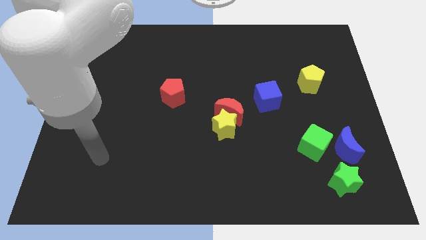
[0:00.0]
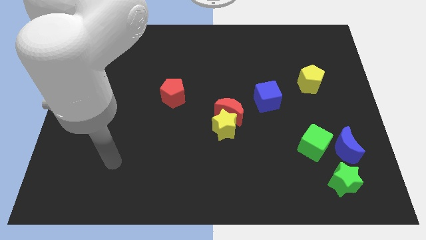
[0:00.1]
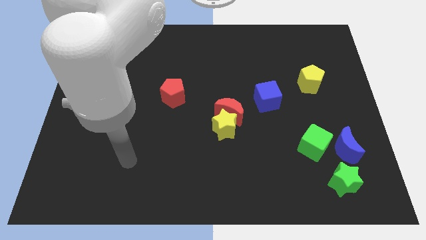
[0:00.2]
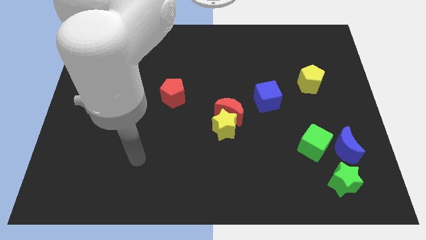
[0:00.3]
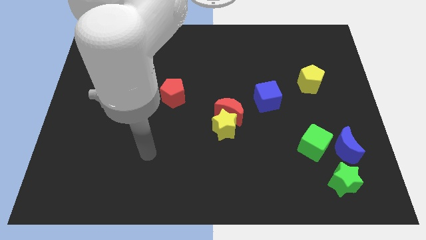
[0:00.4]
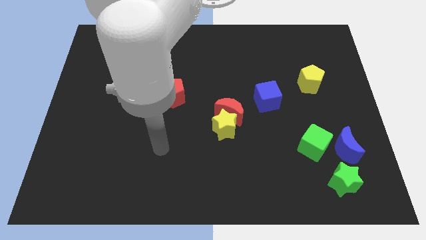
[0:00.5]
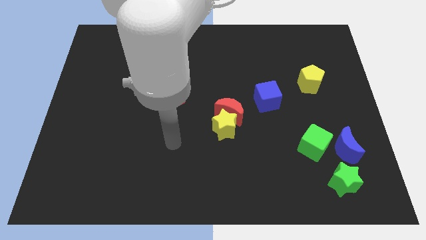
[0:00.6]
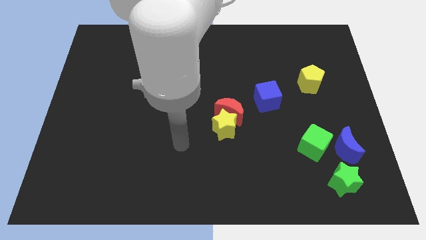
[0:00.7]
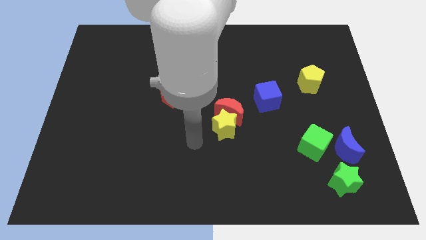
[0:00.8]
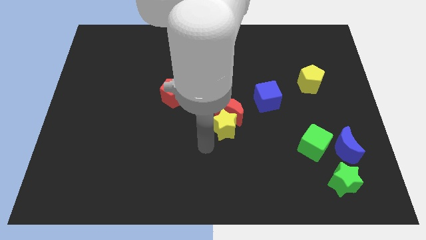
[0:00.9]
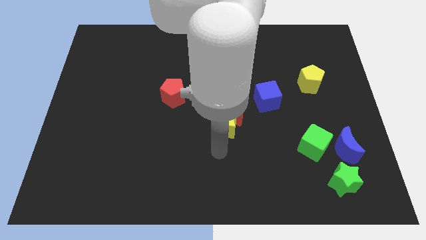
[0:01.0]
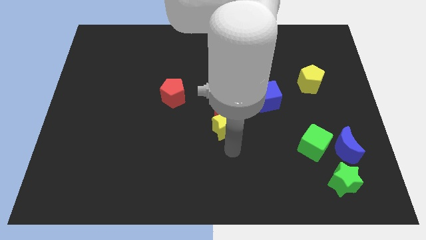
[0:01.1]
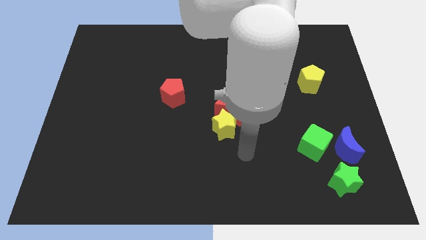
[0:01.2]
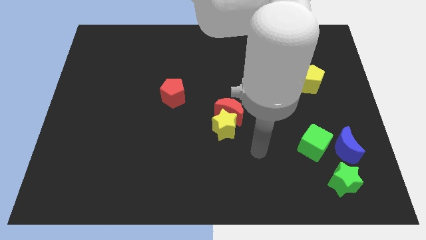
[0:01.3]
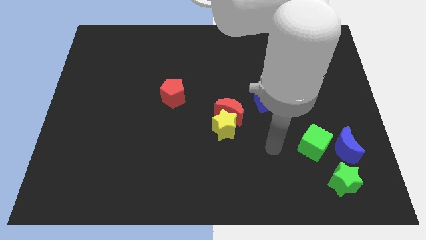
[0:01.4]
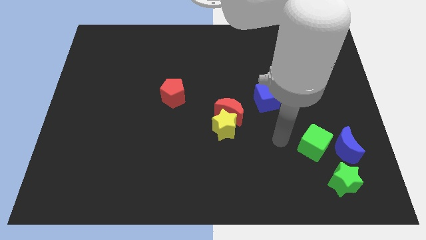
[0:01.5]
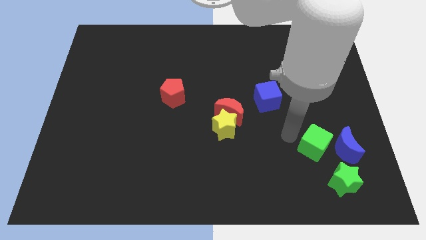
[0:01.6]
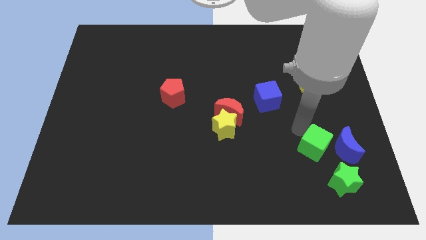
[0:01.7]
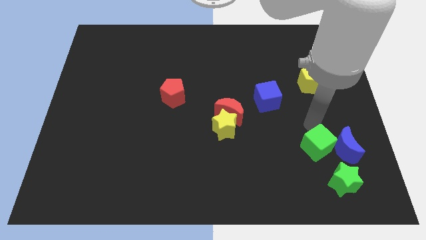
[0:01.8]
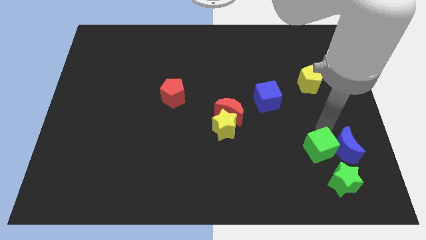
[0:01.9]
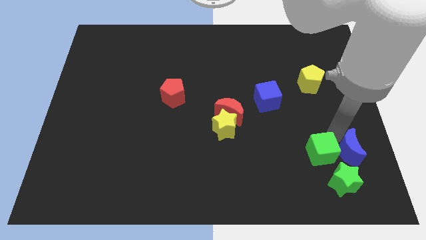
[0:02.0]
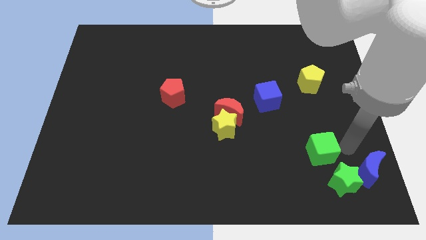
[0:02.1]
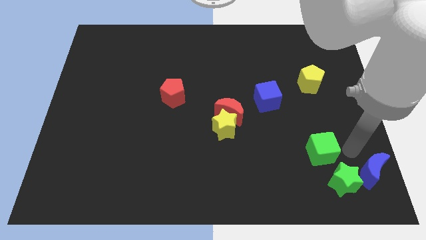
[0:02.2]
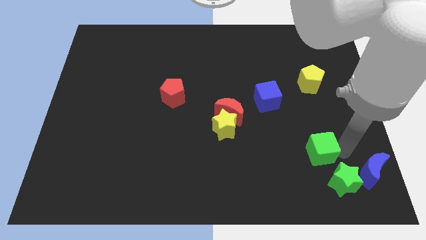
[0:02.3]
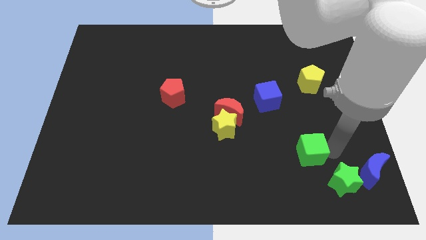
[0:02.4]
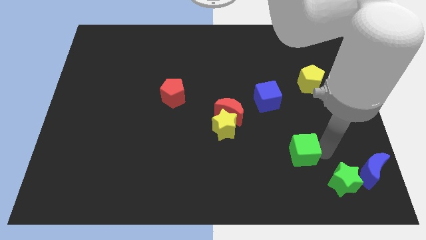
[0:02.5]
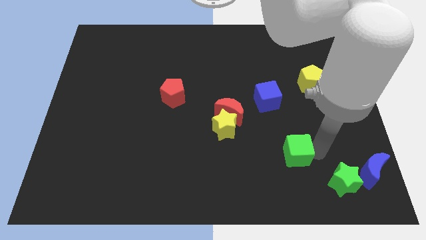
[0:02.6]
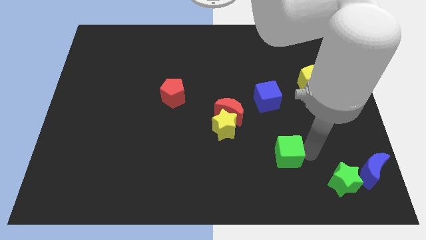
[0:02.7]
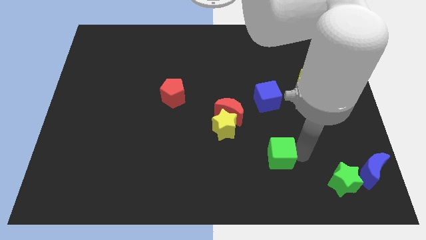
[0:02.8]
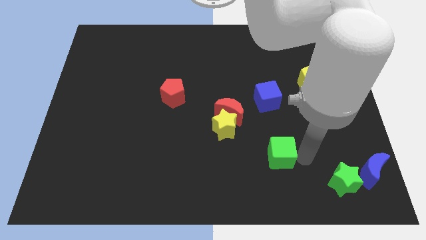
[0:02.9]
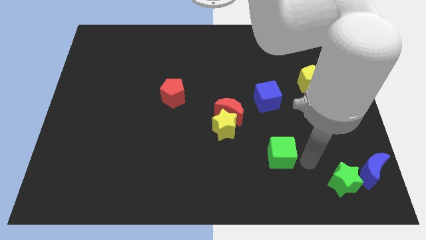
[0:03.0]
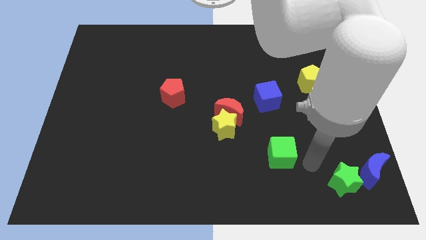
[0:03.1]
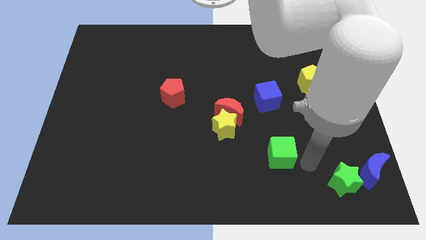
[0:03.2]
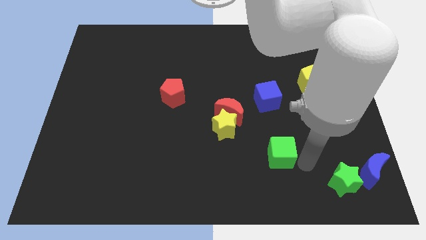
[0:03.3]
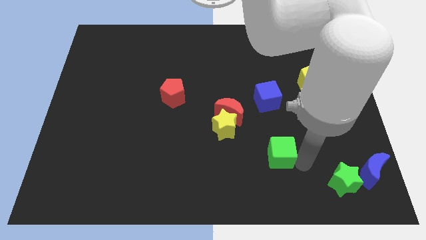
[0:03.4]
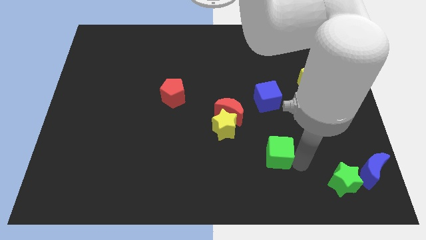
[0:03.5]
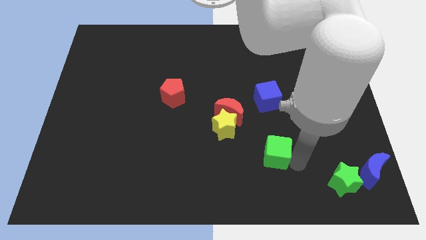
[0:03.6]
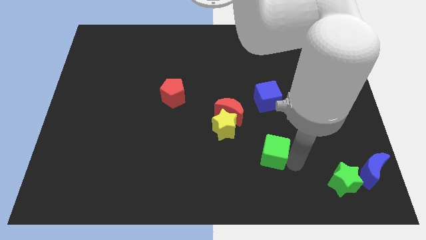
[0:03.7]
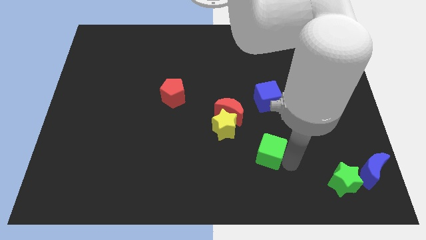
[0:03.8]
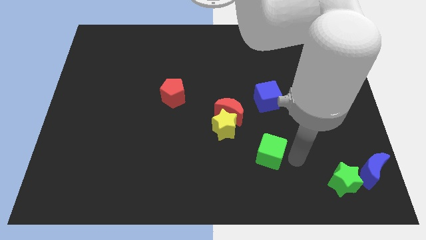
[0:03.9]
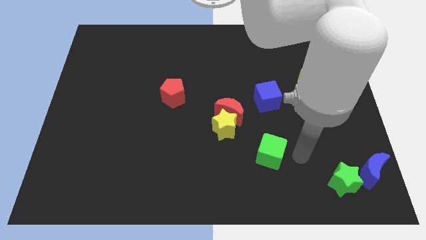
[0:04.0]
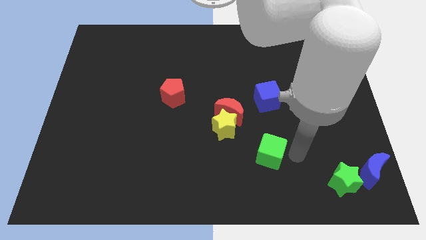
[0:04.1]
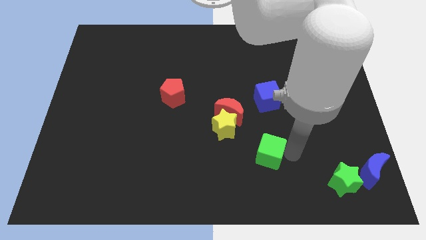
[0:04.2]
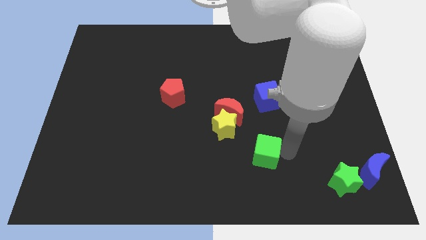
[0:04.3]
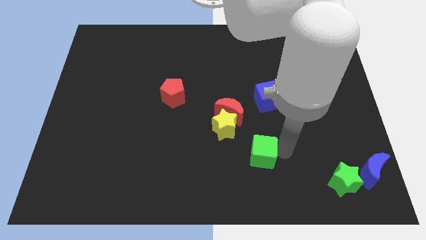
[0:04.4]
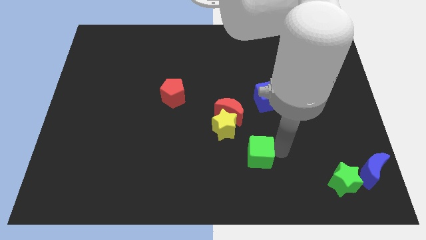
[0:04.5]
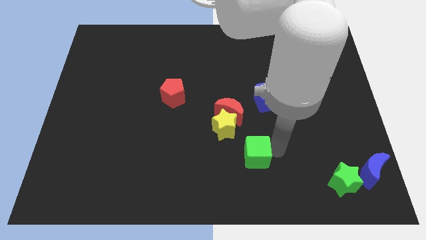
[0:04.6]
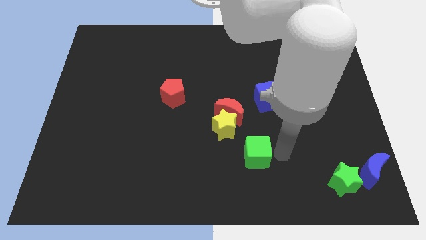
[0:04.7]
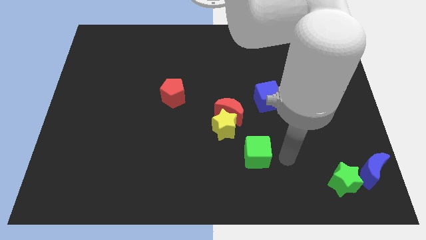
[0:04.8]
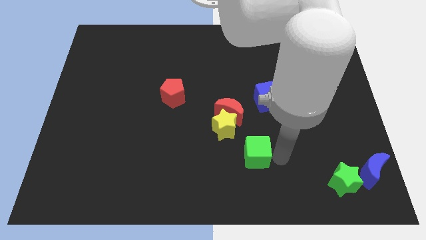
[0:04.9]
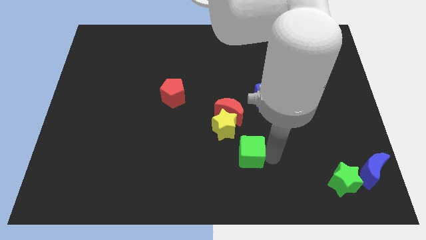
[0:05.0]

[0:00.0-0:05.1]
push the green cube to the bottom side of the red moon

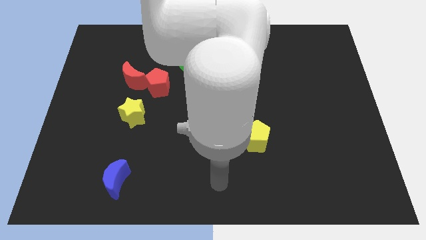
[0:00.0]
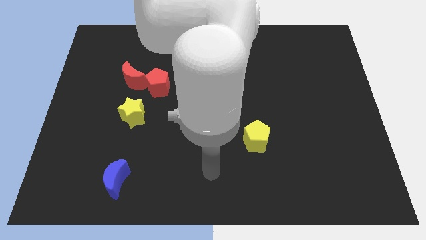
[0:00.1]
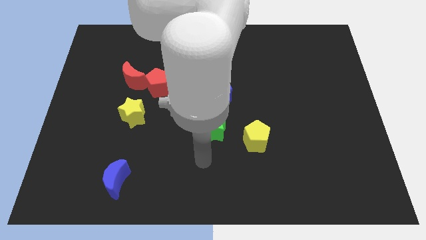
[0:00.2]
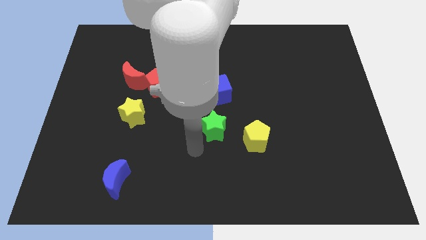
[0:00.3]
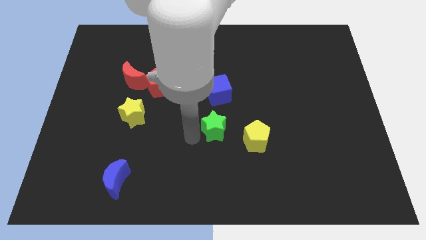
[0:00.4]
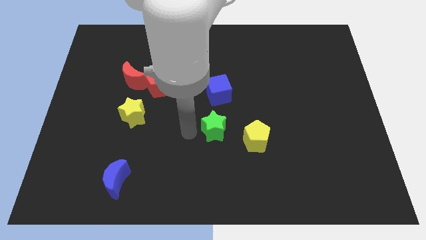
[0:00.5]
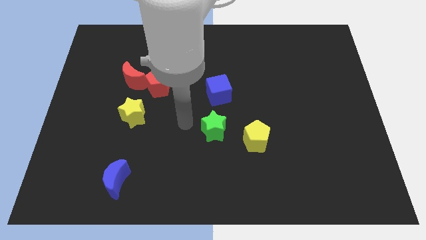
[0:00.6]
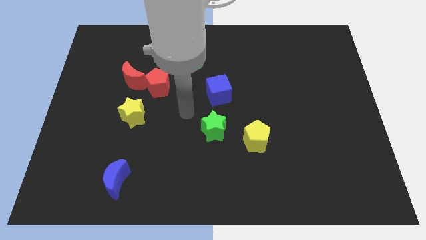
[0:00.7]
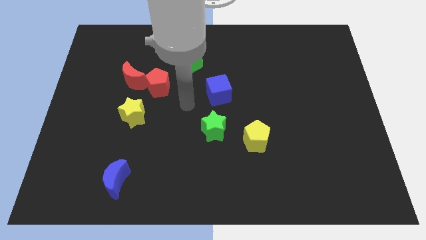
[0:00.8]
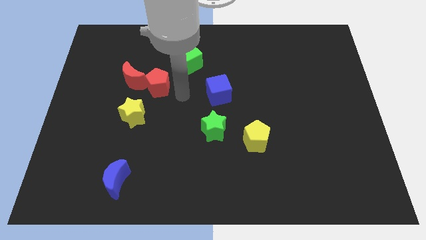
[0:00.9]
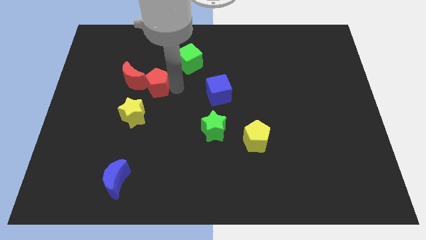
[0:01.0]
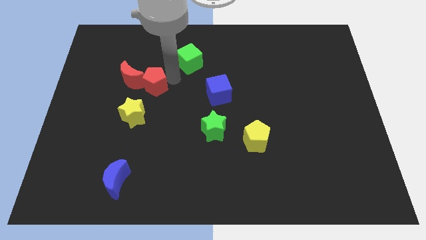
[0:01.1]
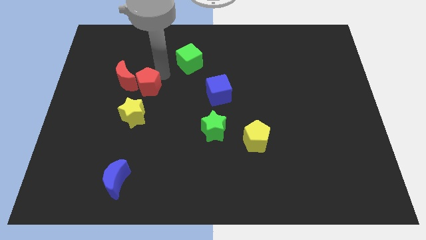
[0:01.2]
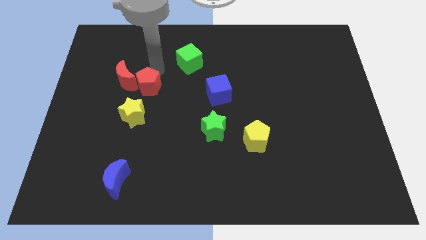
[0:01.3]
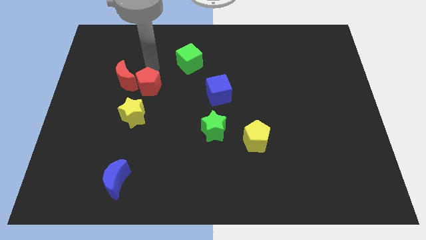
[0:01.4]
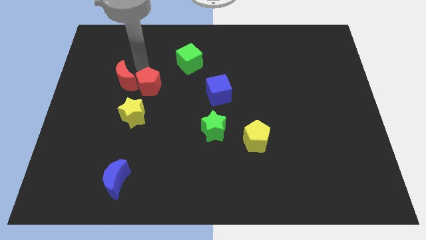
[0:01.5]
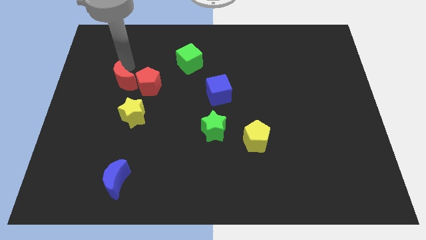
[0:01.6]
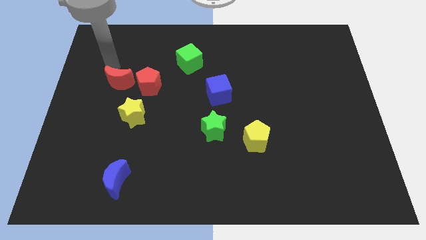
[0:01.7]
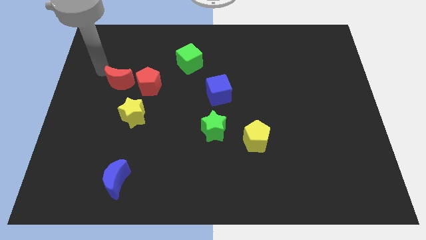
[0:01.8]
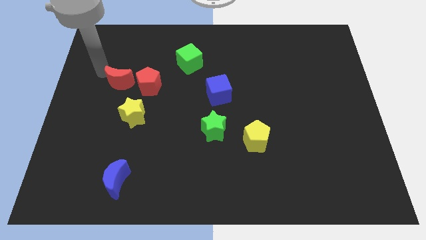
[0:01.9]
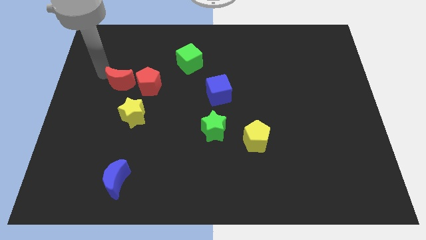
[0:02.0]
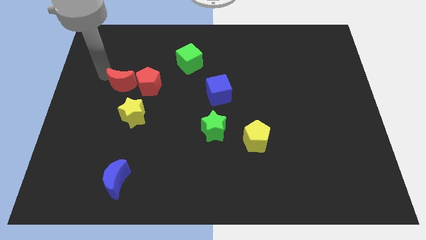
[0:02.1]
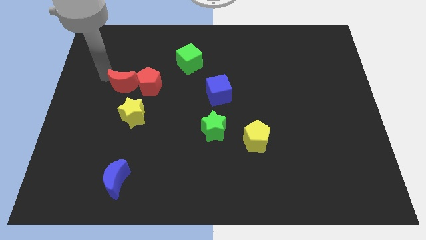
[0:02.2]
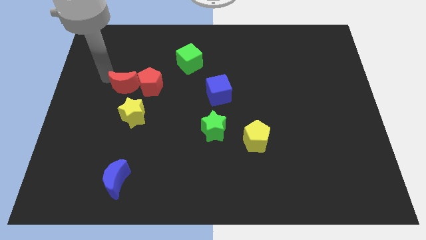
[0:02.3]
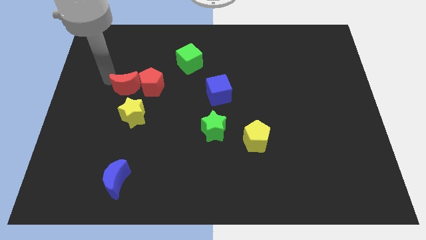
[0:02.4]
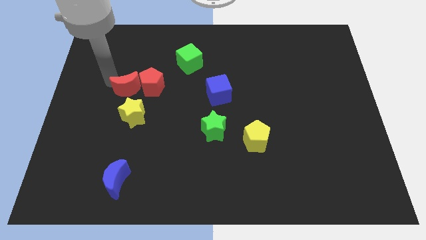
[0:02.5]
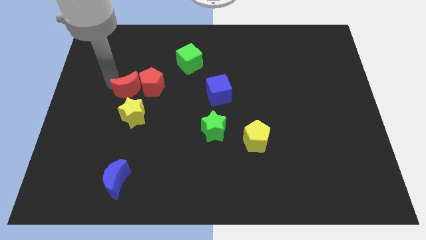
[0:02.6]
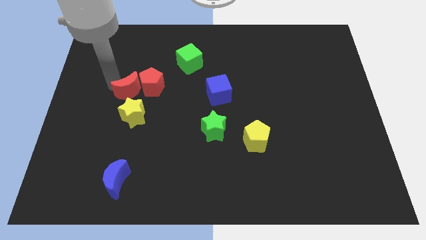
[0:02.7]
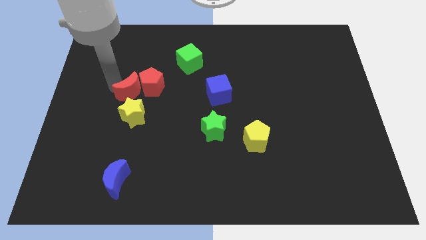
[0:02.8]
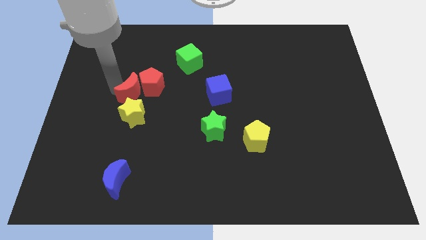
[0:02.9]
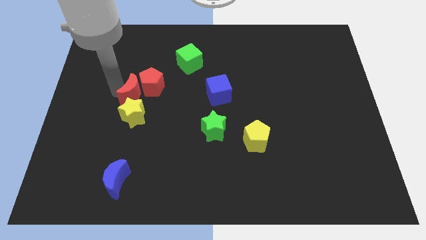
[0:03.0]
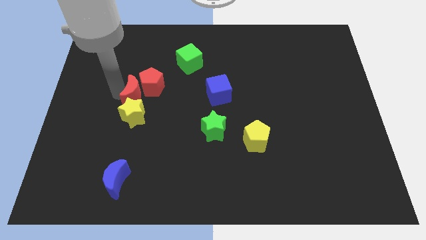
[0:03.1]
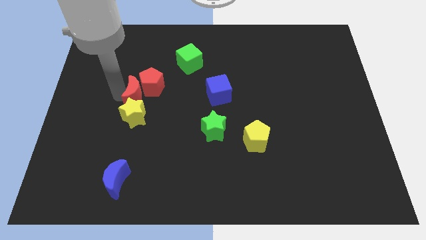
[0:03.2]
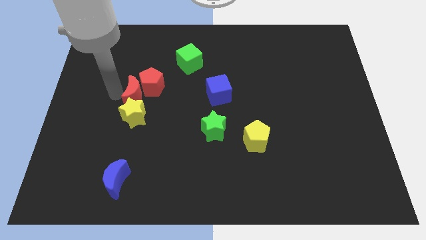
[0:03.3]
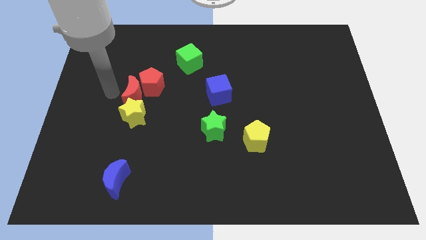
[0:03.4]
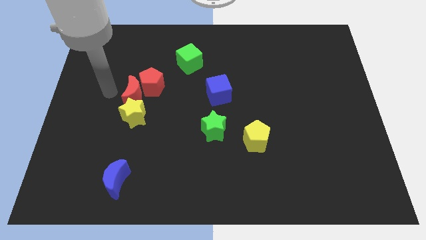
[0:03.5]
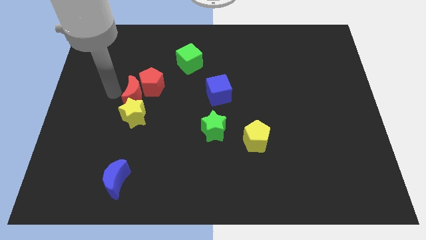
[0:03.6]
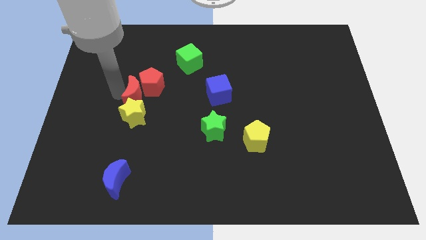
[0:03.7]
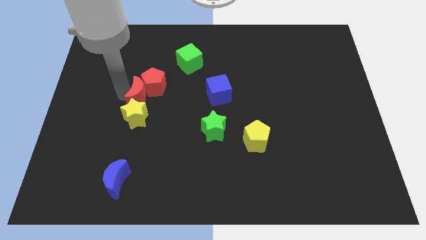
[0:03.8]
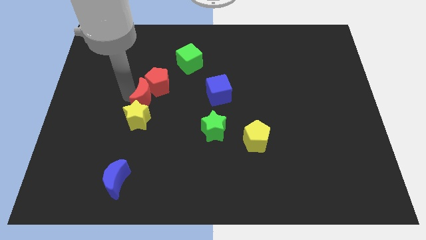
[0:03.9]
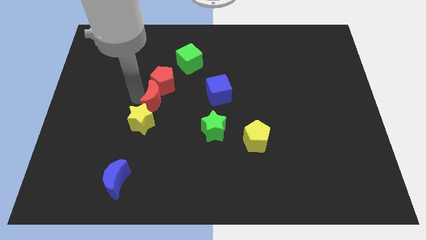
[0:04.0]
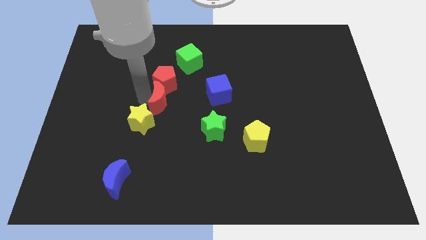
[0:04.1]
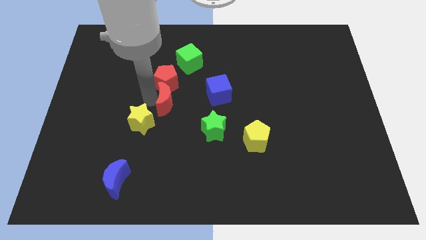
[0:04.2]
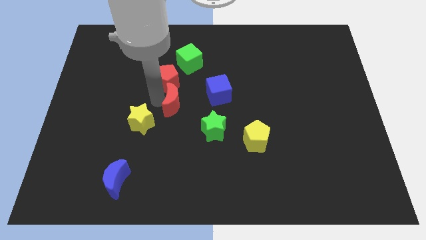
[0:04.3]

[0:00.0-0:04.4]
move the red moon to the top left of the green star
